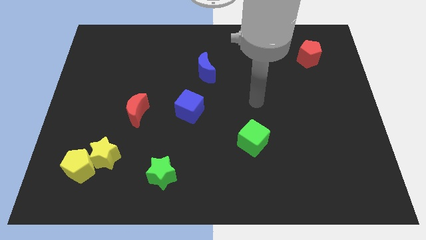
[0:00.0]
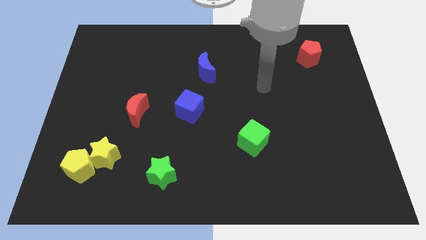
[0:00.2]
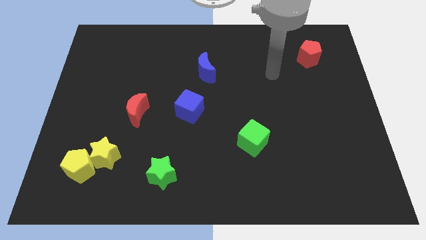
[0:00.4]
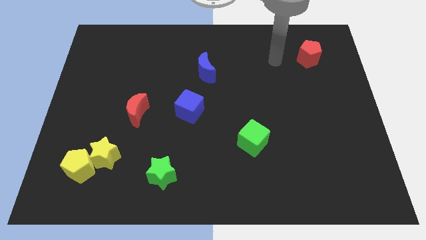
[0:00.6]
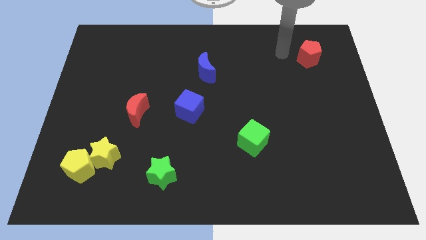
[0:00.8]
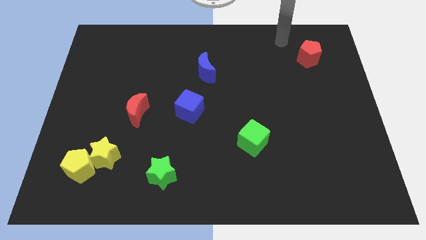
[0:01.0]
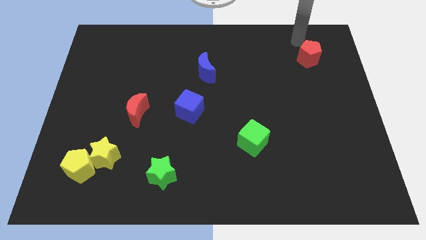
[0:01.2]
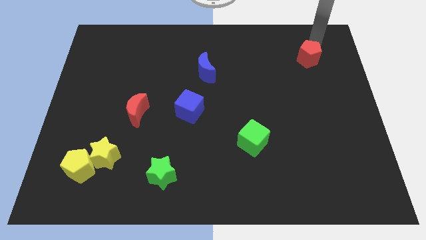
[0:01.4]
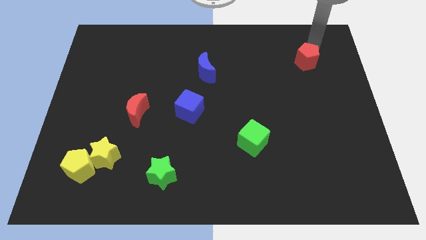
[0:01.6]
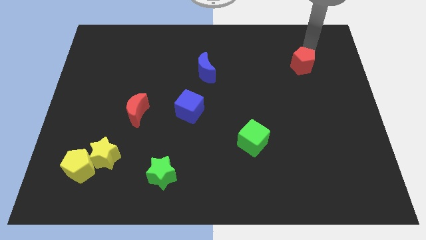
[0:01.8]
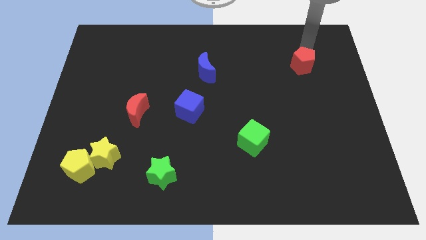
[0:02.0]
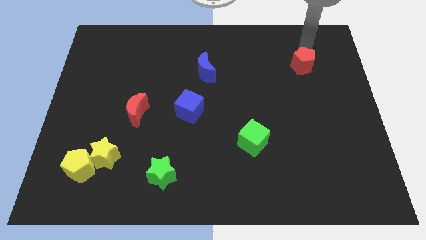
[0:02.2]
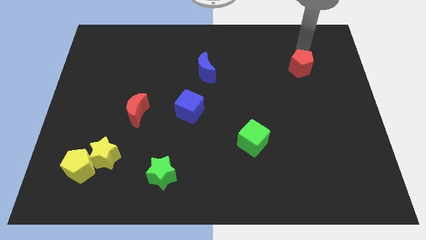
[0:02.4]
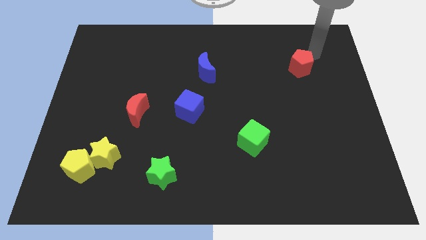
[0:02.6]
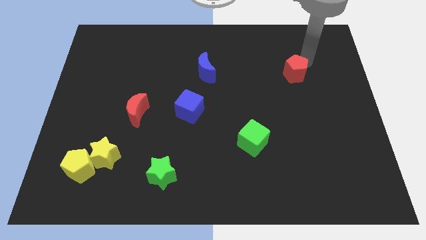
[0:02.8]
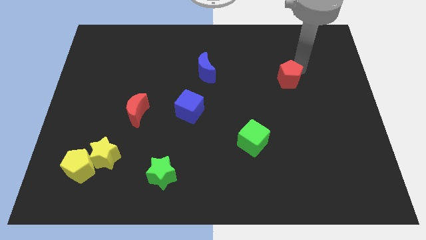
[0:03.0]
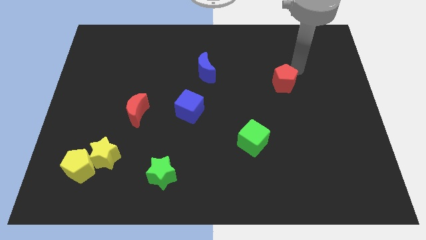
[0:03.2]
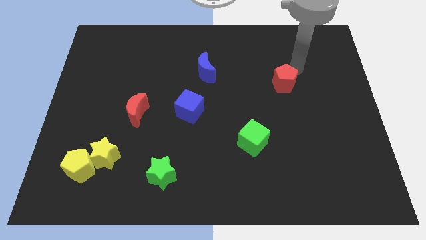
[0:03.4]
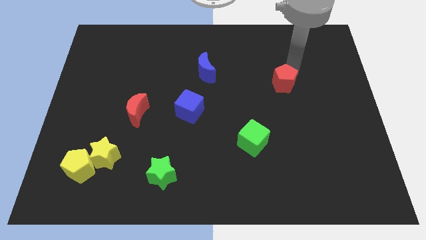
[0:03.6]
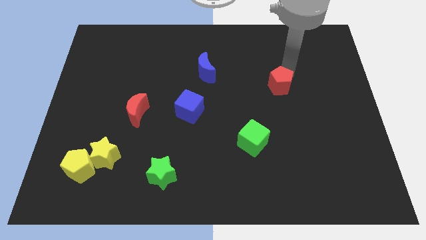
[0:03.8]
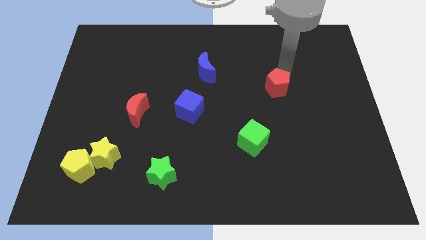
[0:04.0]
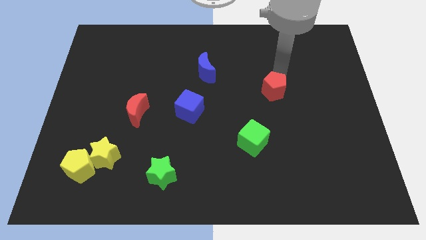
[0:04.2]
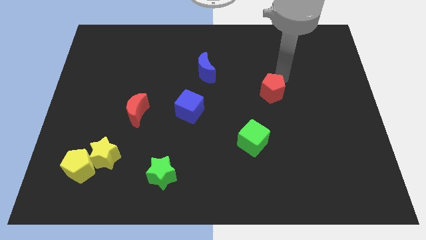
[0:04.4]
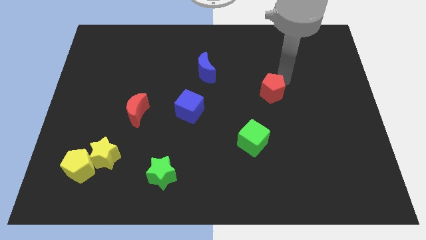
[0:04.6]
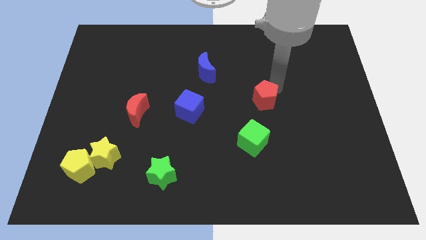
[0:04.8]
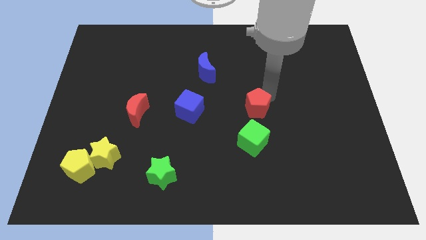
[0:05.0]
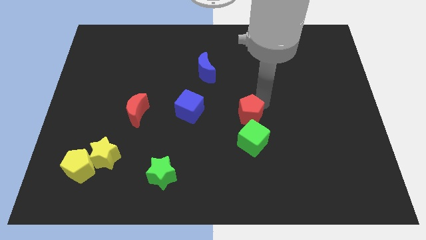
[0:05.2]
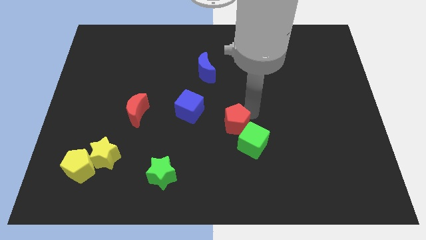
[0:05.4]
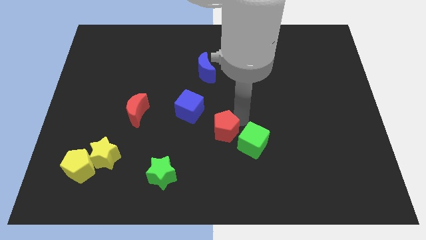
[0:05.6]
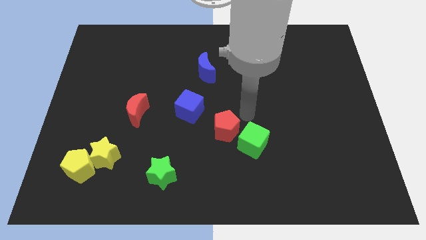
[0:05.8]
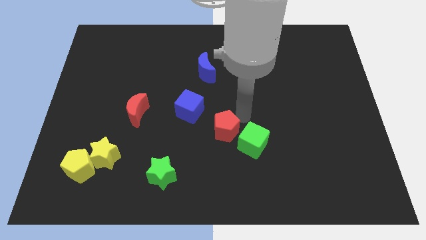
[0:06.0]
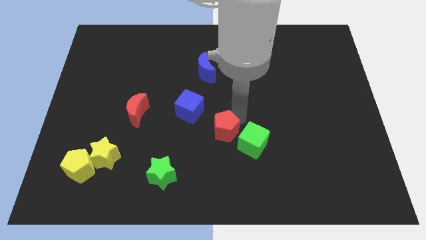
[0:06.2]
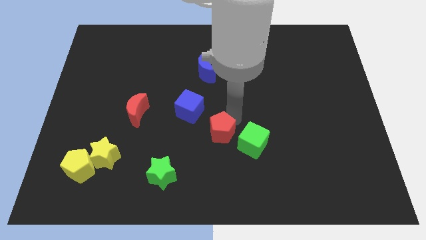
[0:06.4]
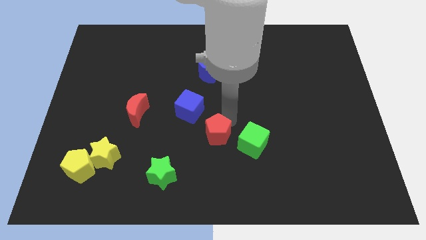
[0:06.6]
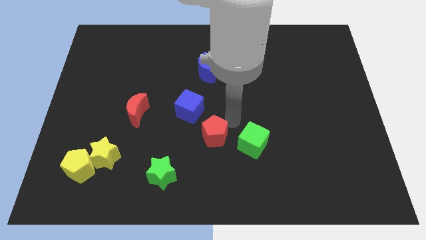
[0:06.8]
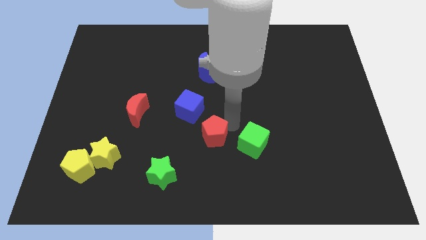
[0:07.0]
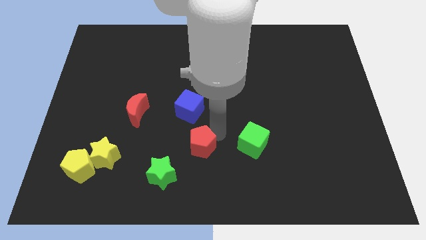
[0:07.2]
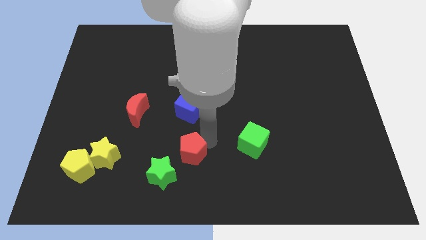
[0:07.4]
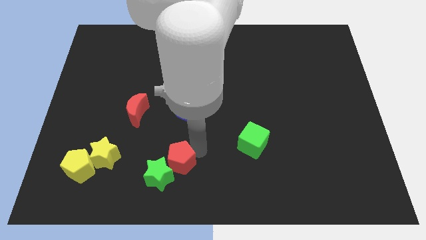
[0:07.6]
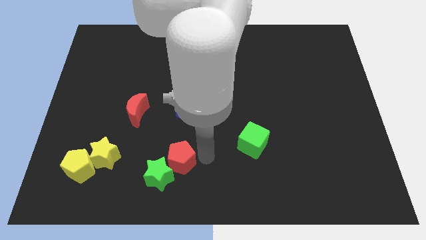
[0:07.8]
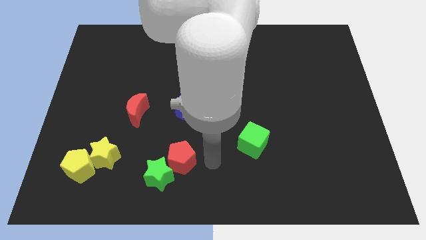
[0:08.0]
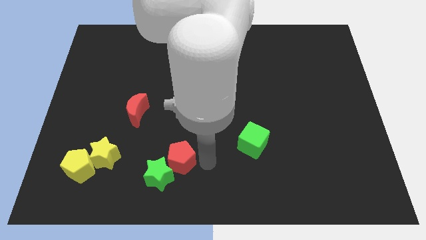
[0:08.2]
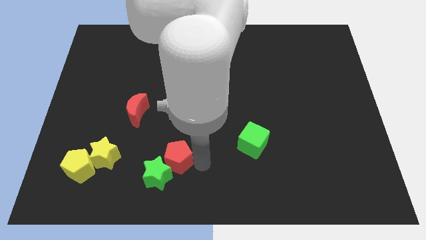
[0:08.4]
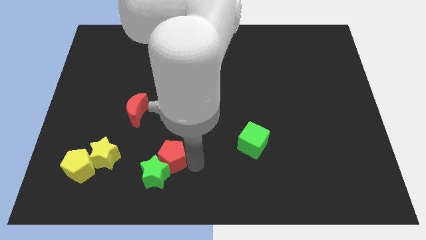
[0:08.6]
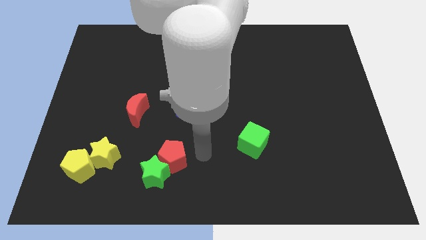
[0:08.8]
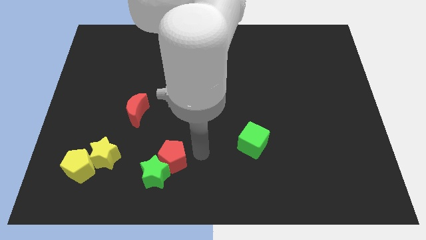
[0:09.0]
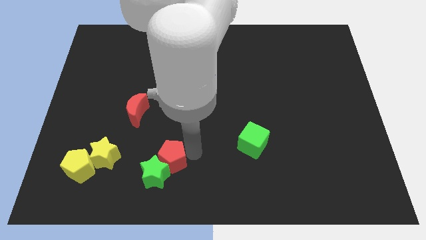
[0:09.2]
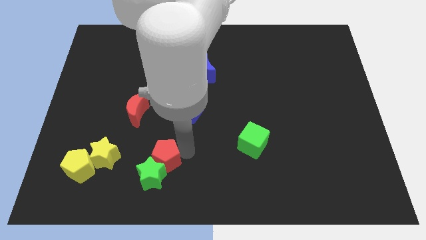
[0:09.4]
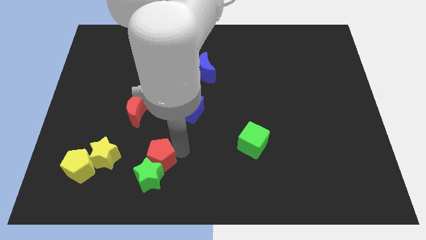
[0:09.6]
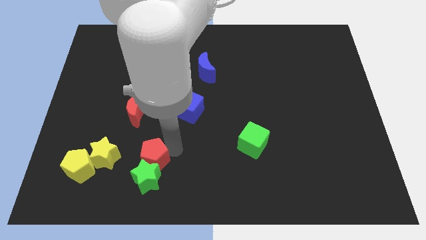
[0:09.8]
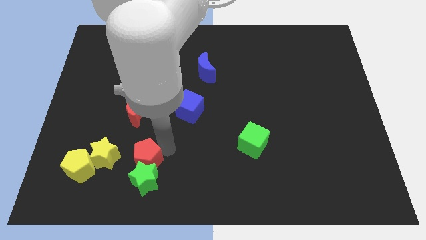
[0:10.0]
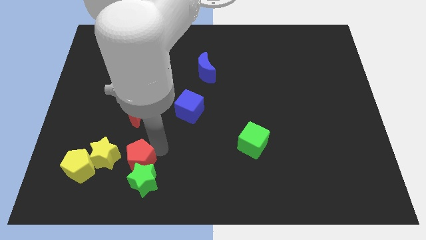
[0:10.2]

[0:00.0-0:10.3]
put the red pentagon diagonally down and to the right of the yellow star

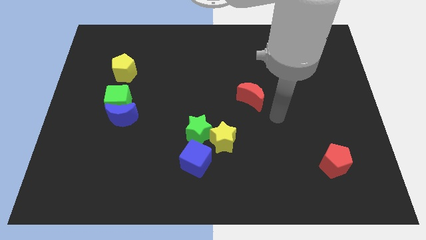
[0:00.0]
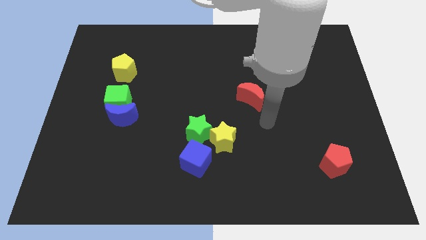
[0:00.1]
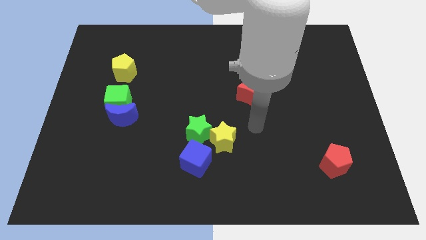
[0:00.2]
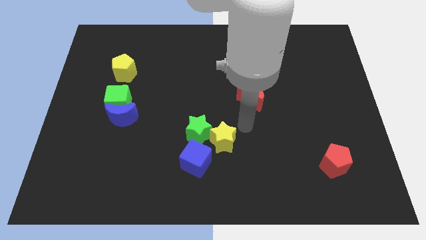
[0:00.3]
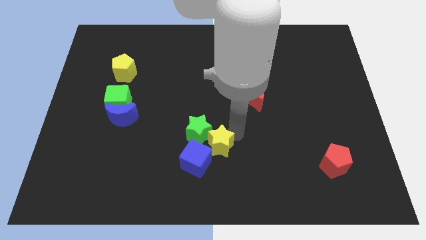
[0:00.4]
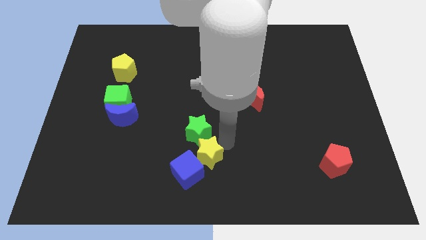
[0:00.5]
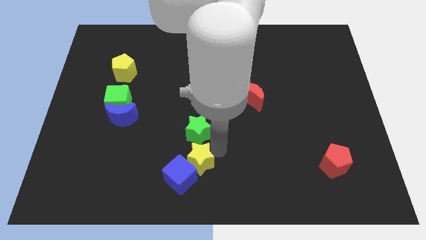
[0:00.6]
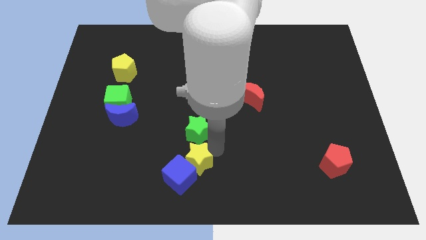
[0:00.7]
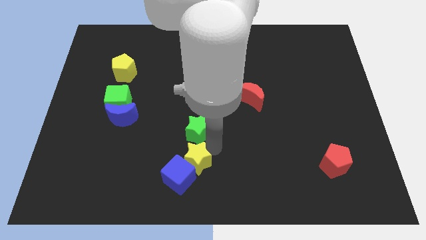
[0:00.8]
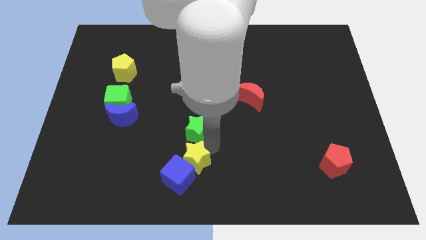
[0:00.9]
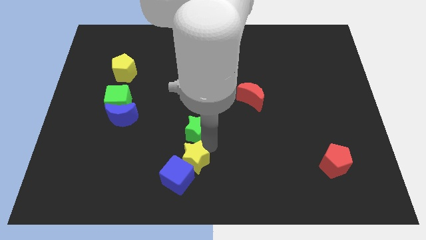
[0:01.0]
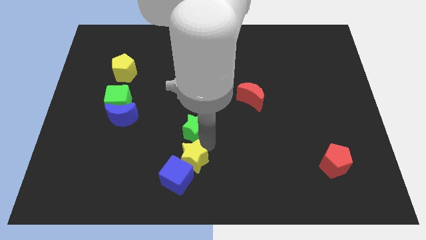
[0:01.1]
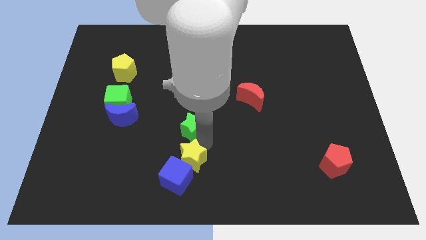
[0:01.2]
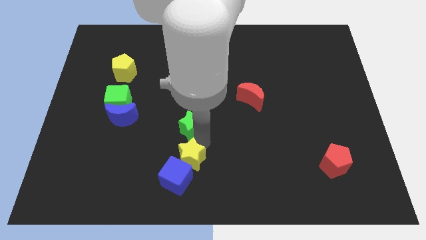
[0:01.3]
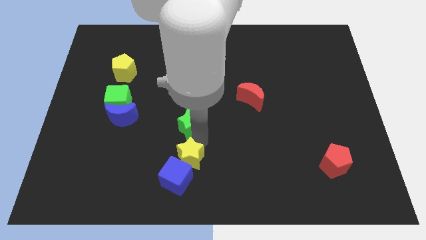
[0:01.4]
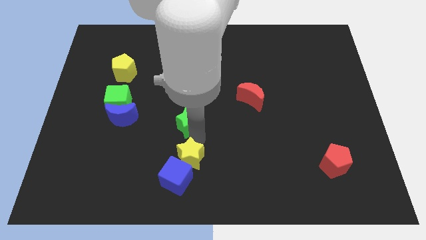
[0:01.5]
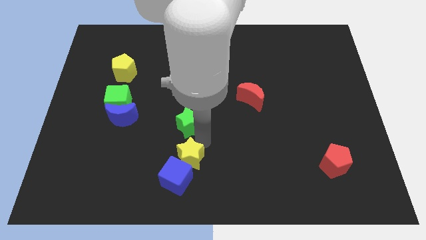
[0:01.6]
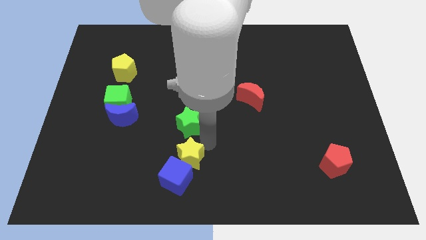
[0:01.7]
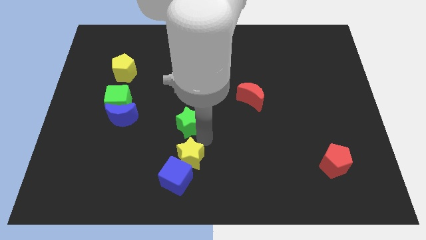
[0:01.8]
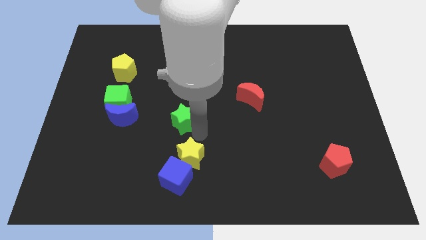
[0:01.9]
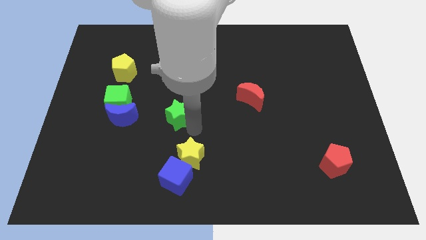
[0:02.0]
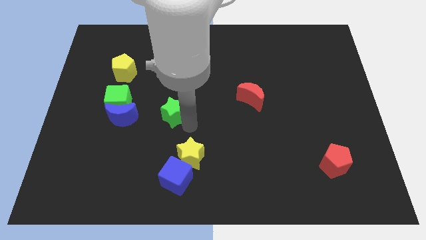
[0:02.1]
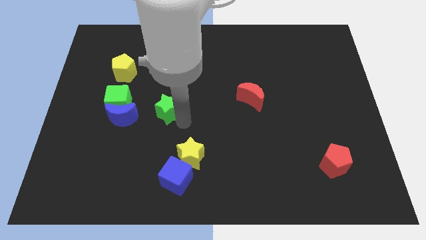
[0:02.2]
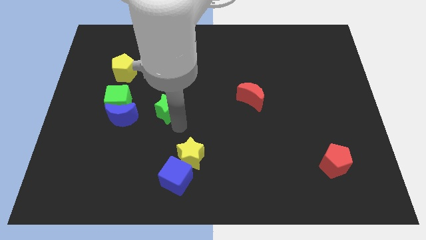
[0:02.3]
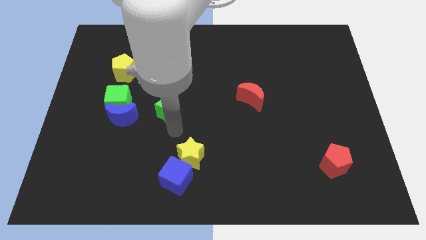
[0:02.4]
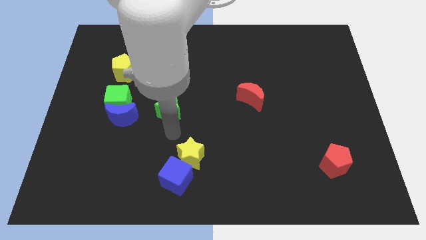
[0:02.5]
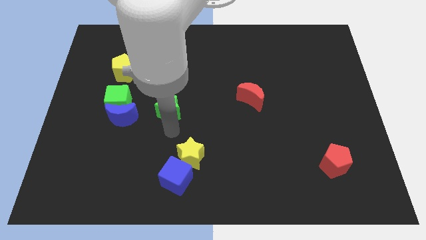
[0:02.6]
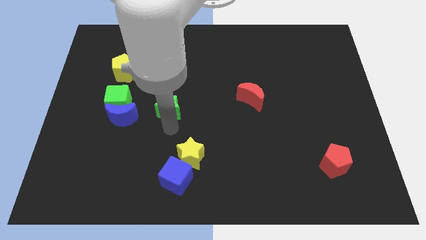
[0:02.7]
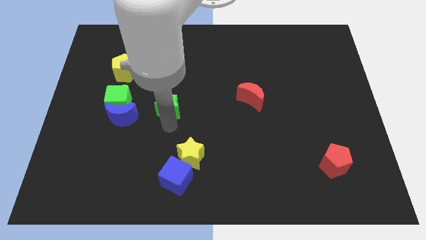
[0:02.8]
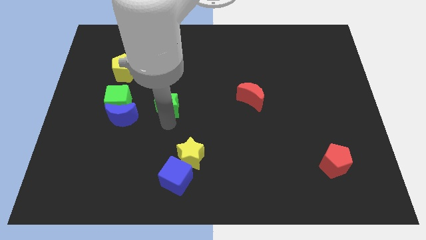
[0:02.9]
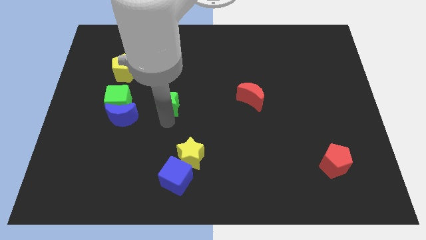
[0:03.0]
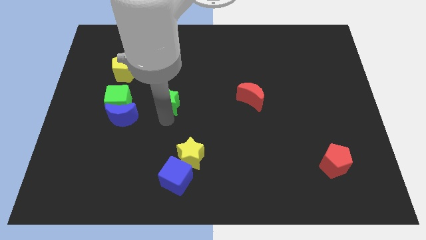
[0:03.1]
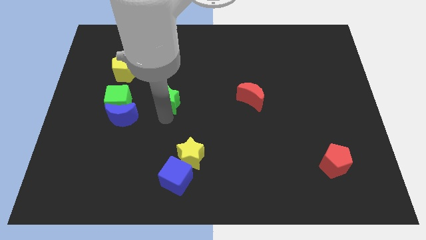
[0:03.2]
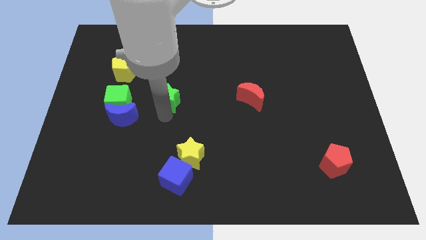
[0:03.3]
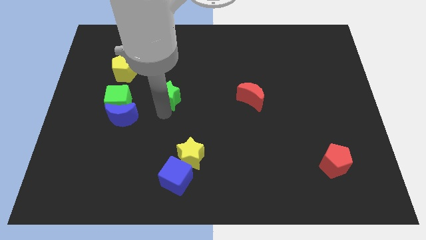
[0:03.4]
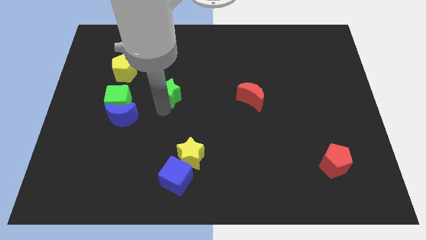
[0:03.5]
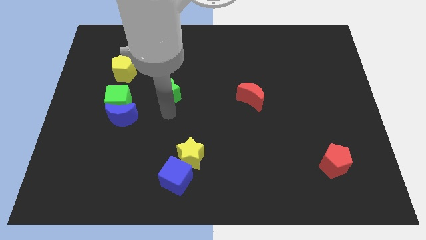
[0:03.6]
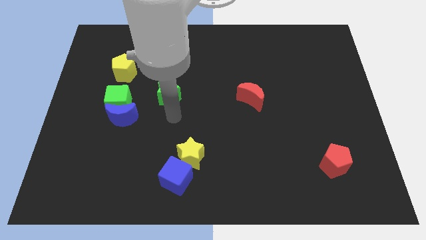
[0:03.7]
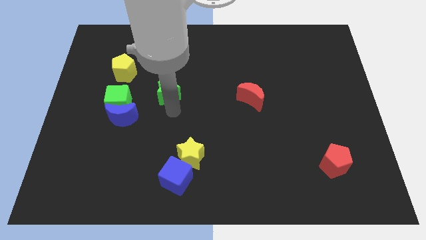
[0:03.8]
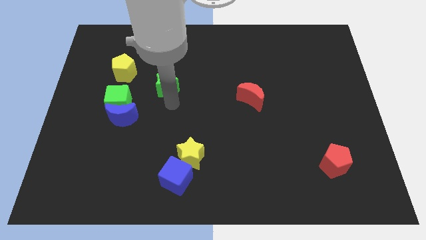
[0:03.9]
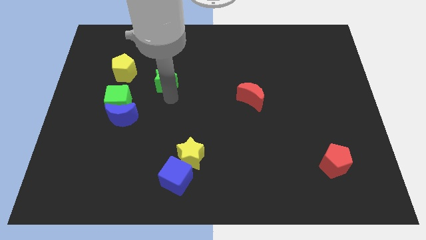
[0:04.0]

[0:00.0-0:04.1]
move the green star to the right side of the yellow pentagon
